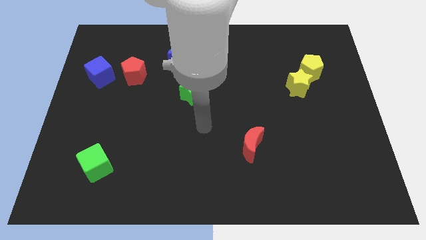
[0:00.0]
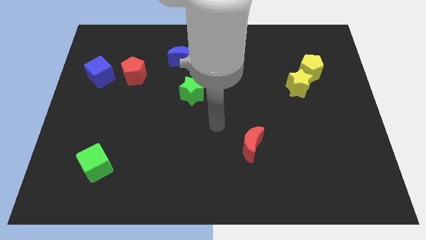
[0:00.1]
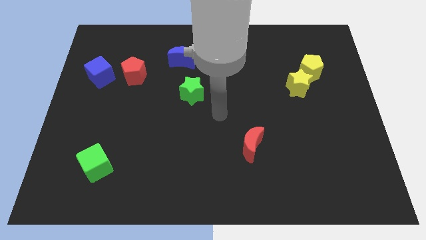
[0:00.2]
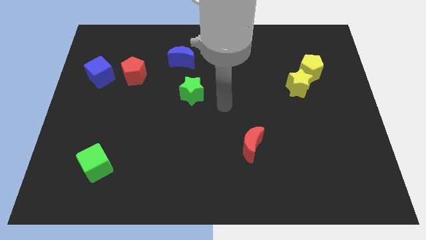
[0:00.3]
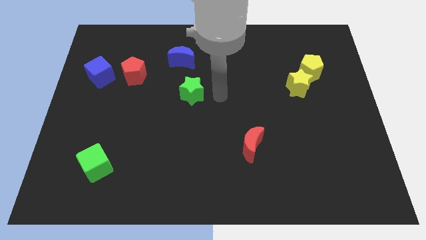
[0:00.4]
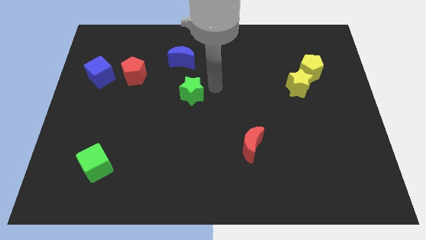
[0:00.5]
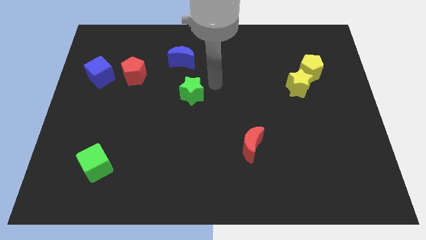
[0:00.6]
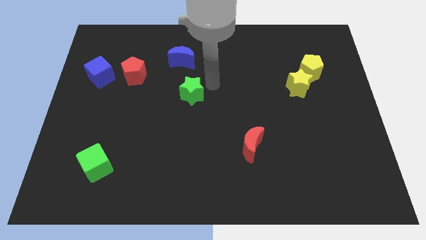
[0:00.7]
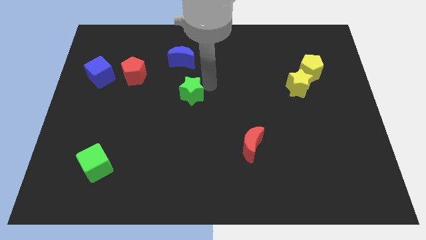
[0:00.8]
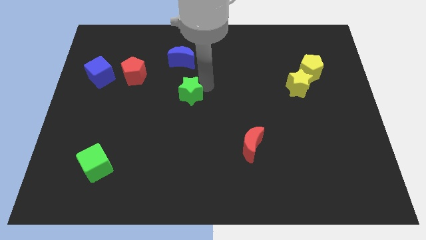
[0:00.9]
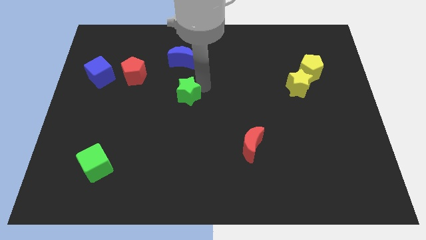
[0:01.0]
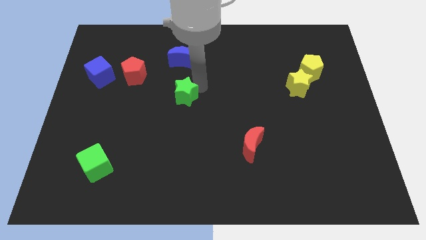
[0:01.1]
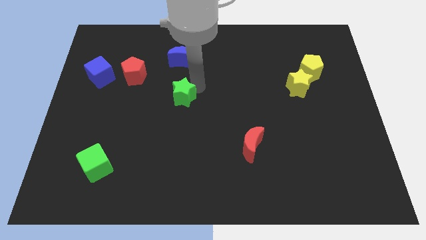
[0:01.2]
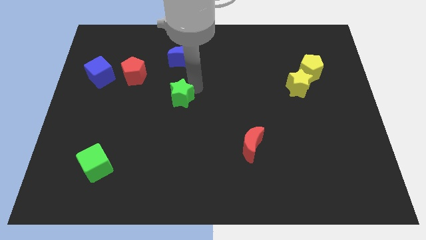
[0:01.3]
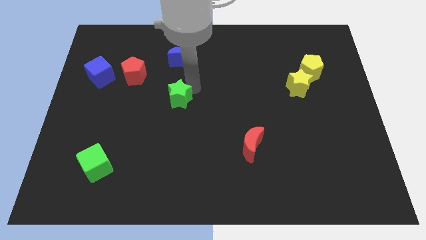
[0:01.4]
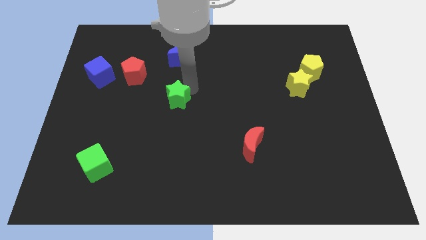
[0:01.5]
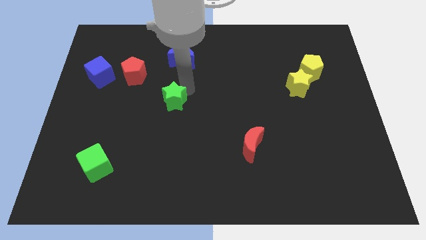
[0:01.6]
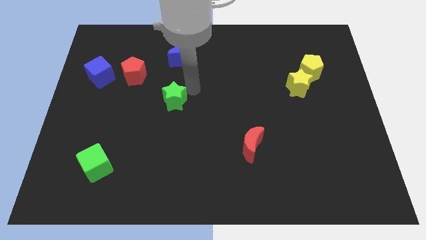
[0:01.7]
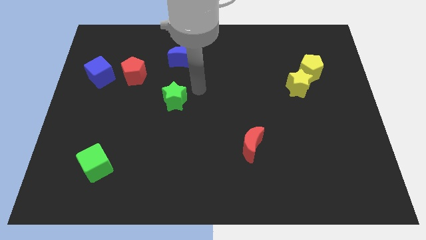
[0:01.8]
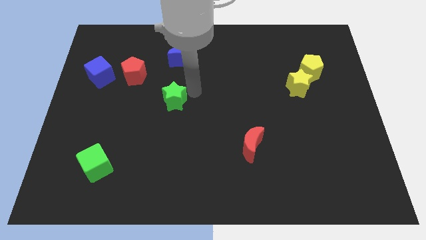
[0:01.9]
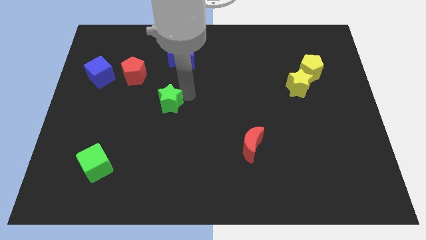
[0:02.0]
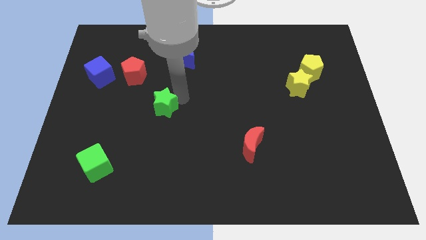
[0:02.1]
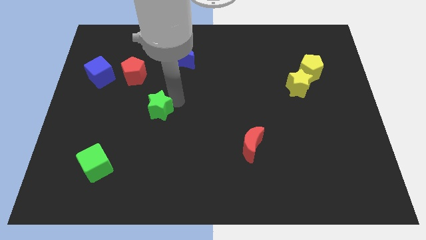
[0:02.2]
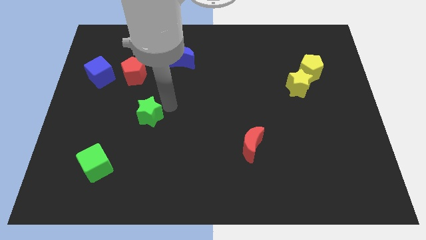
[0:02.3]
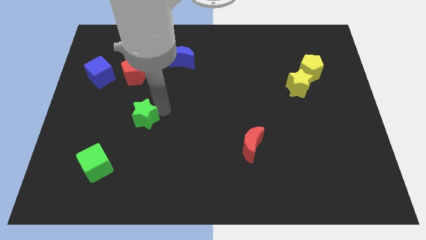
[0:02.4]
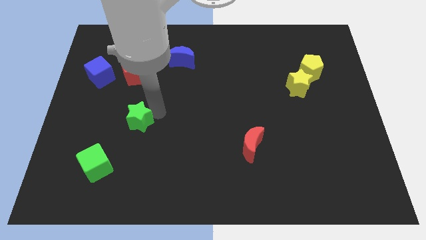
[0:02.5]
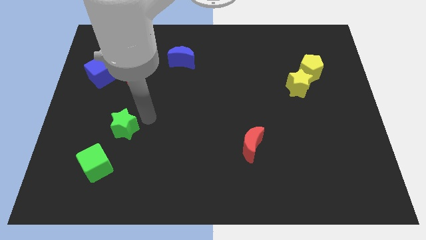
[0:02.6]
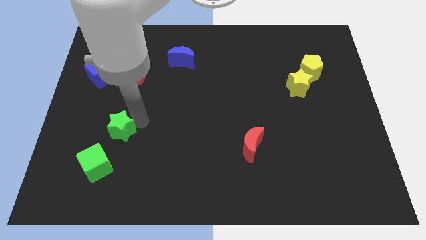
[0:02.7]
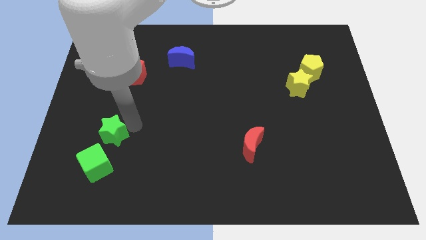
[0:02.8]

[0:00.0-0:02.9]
push the green star downwards and to the left

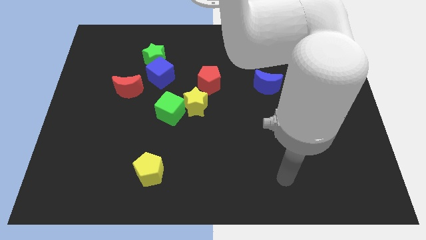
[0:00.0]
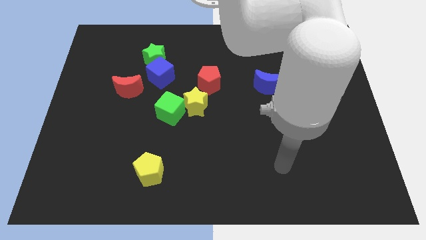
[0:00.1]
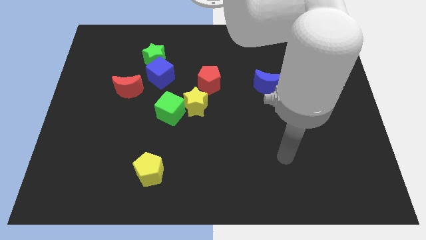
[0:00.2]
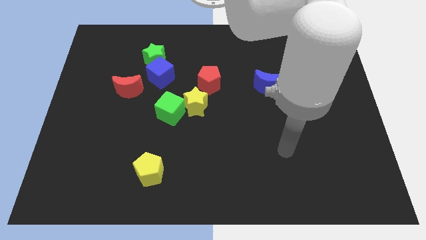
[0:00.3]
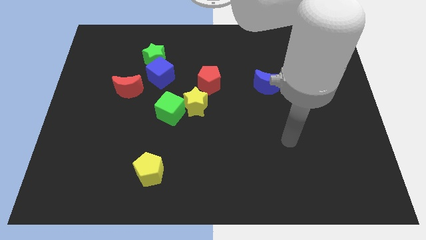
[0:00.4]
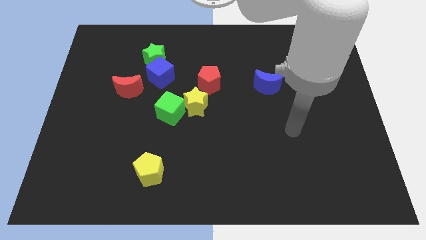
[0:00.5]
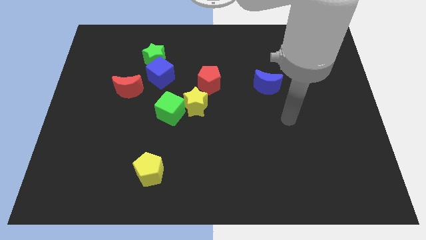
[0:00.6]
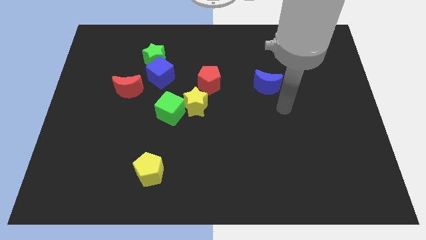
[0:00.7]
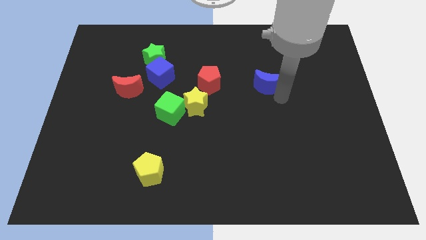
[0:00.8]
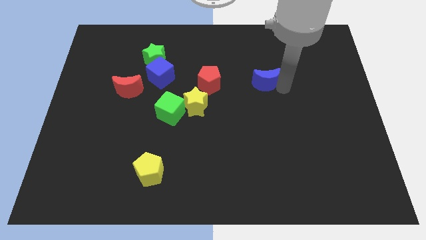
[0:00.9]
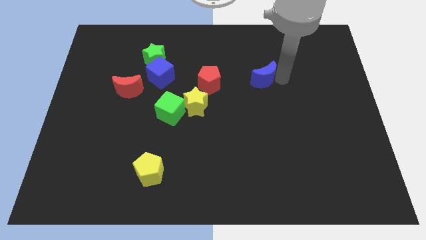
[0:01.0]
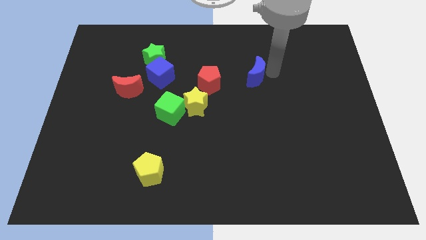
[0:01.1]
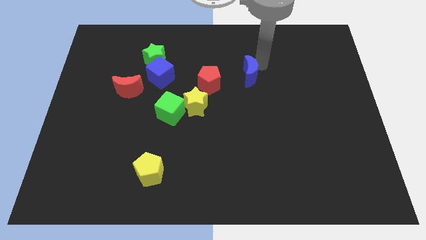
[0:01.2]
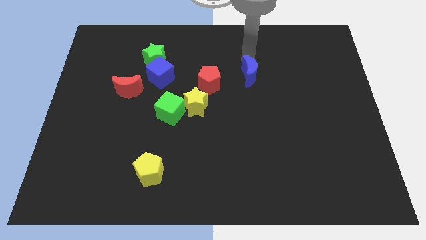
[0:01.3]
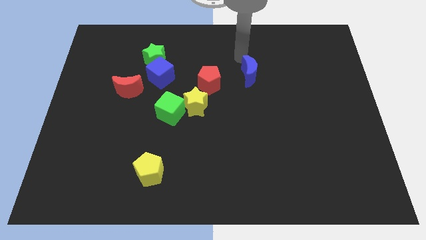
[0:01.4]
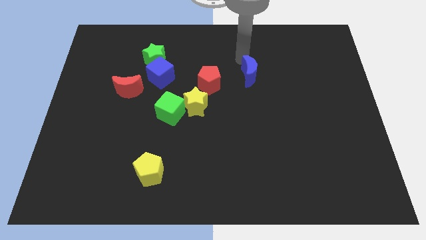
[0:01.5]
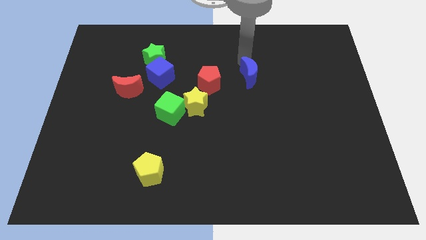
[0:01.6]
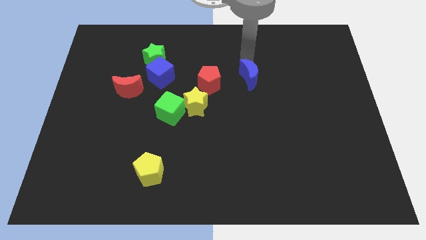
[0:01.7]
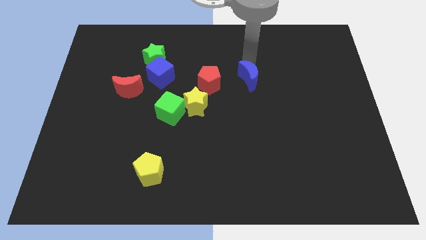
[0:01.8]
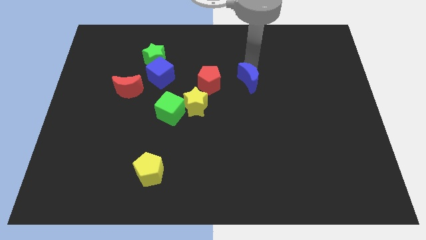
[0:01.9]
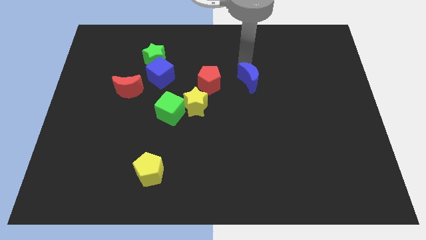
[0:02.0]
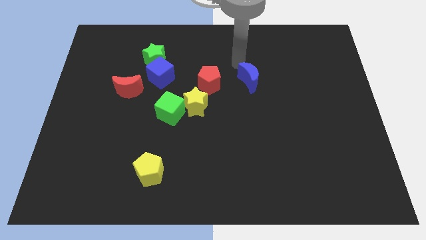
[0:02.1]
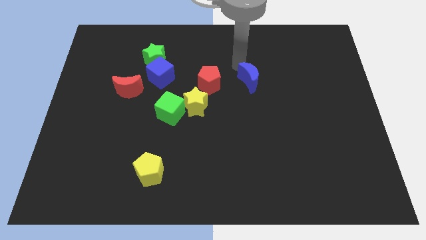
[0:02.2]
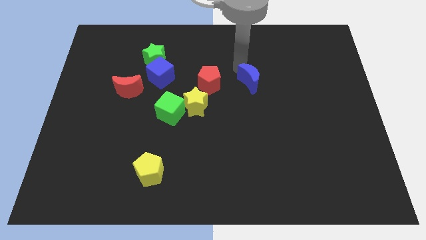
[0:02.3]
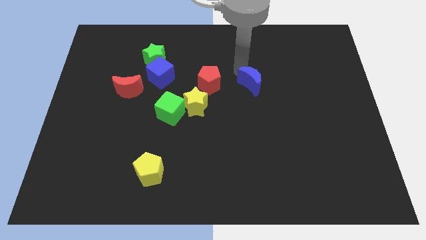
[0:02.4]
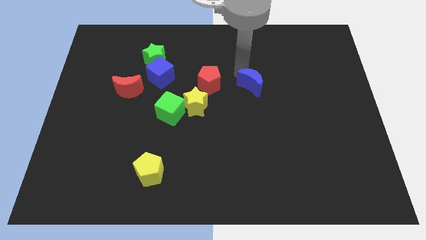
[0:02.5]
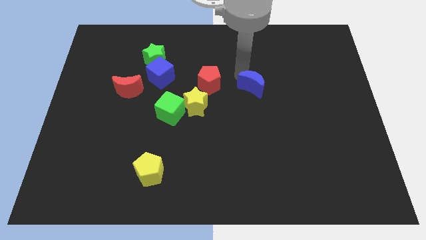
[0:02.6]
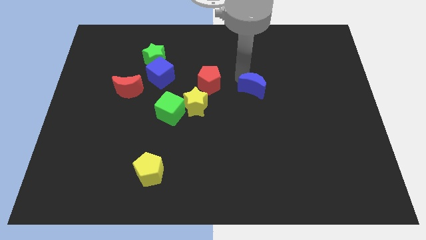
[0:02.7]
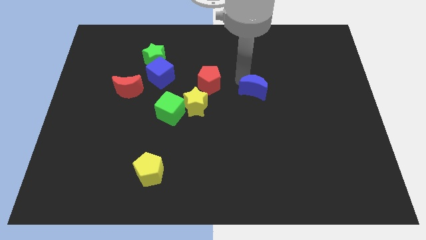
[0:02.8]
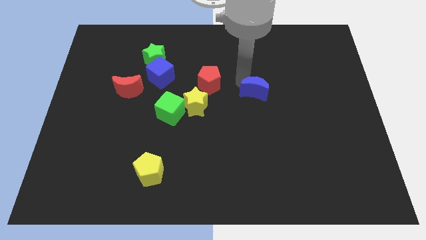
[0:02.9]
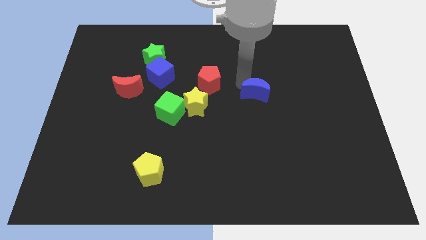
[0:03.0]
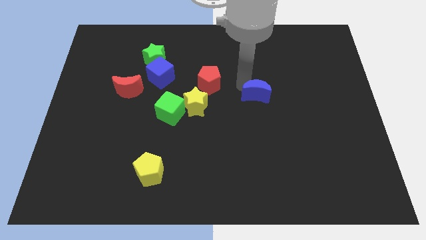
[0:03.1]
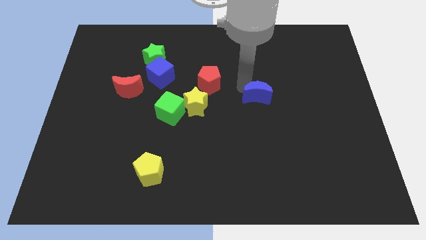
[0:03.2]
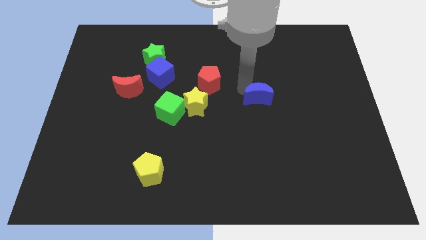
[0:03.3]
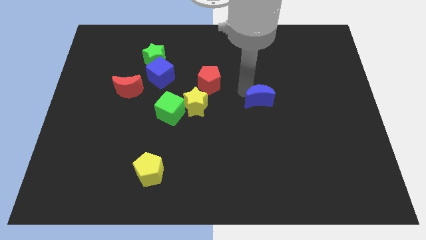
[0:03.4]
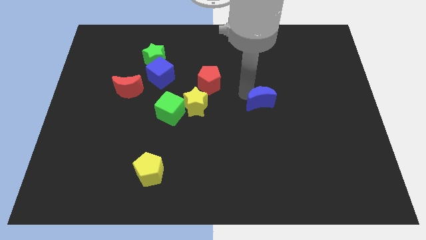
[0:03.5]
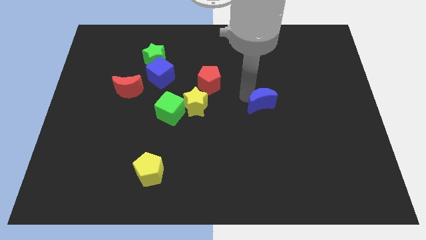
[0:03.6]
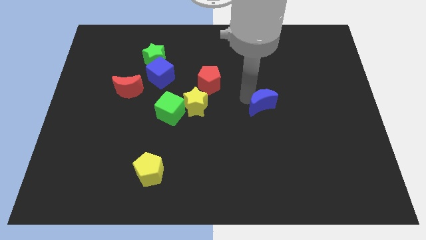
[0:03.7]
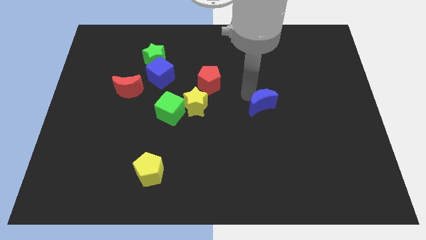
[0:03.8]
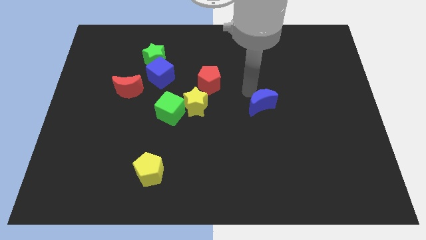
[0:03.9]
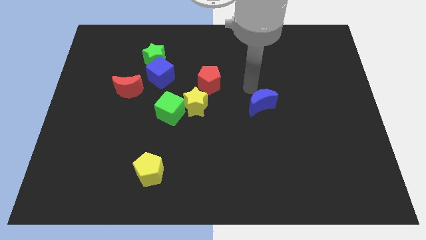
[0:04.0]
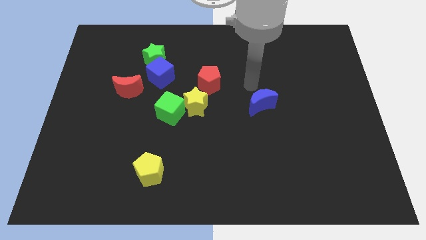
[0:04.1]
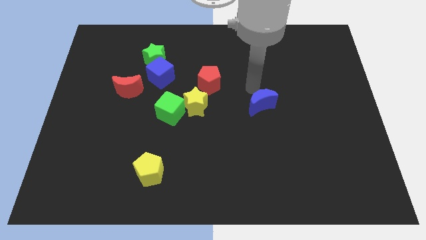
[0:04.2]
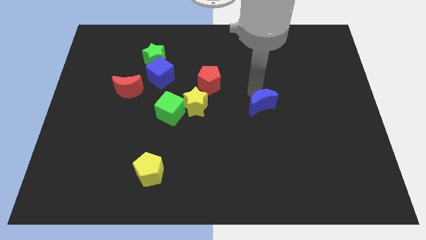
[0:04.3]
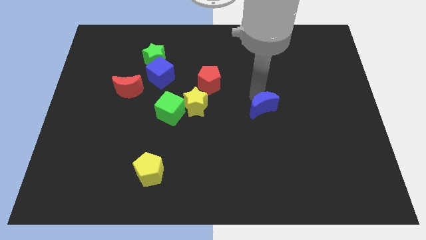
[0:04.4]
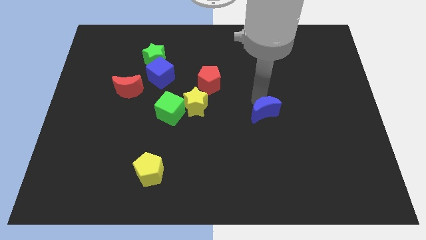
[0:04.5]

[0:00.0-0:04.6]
push the blue moon downwards a bit

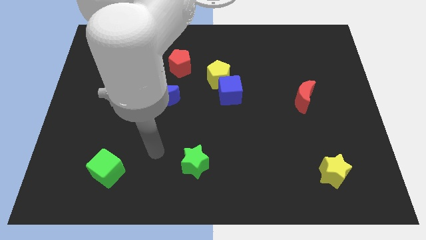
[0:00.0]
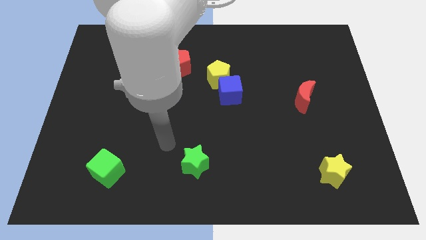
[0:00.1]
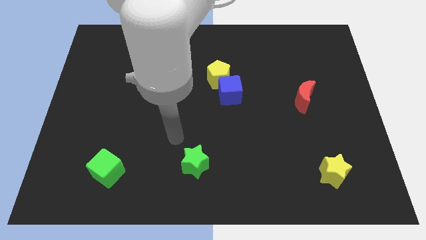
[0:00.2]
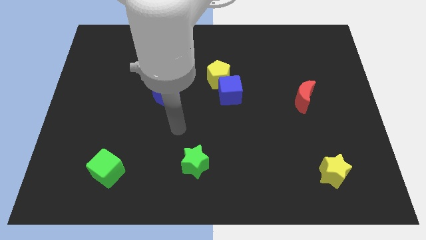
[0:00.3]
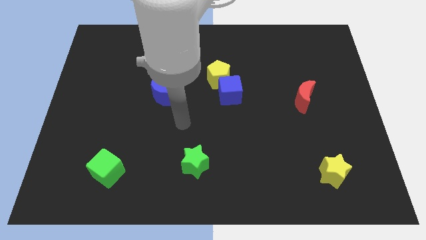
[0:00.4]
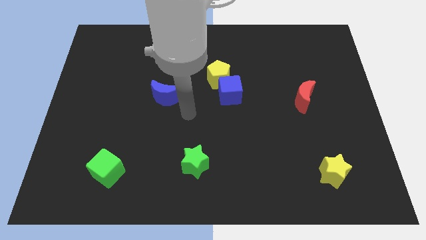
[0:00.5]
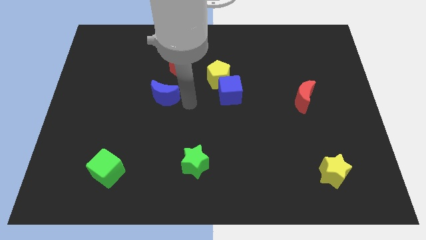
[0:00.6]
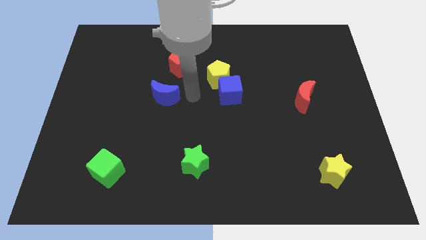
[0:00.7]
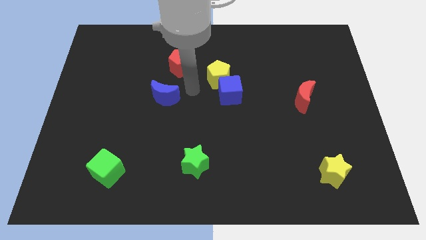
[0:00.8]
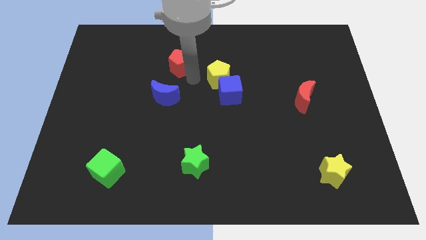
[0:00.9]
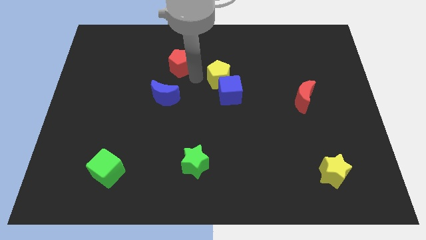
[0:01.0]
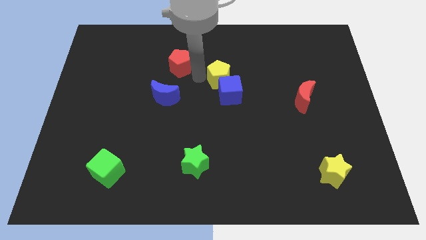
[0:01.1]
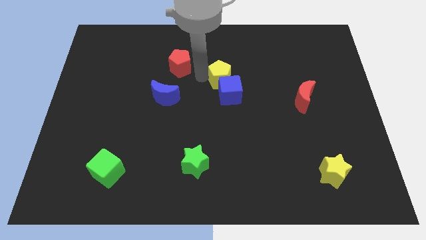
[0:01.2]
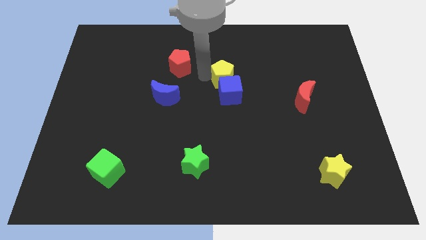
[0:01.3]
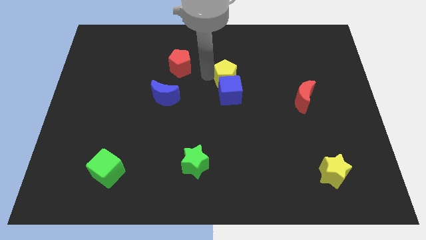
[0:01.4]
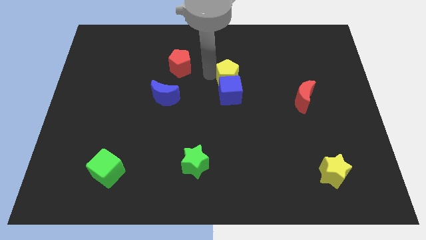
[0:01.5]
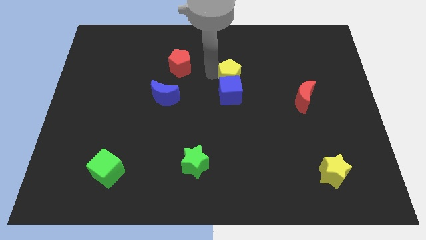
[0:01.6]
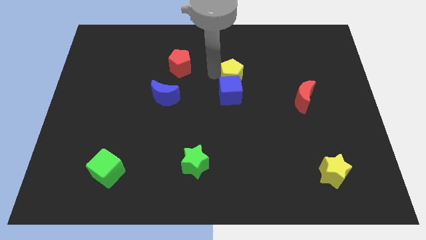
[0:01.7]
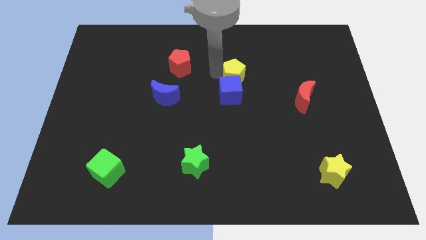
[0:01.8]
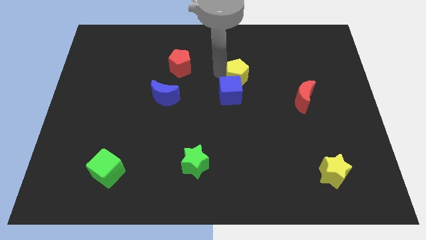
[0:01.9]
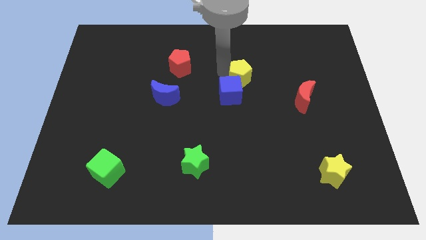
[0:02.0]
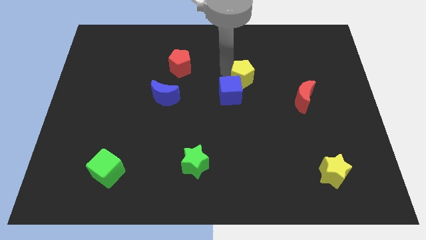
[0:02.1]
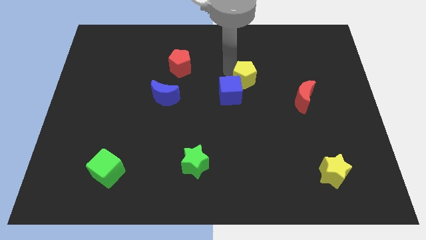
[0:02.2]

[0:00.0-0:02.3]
push the yellow pentagon a little bit to the right
